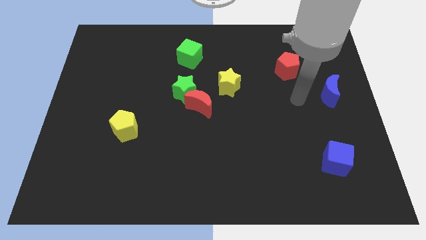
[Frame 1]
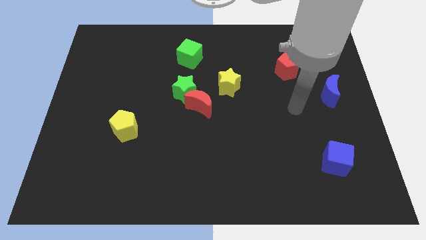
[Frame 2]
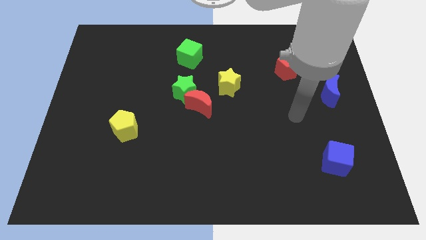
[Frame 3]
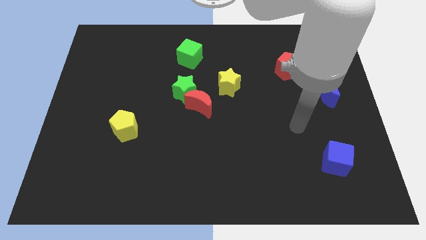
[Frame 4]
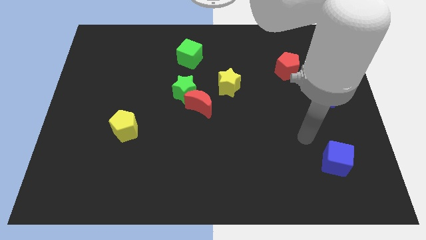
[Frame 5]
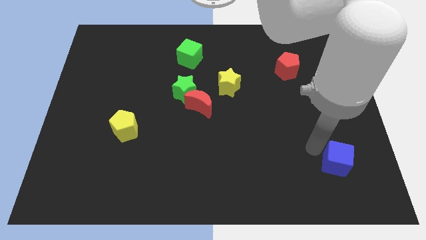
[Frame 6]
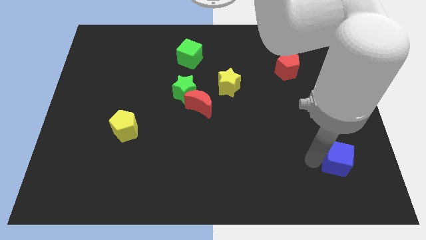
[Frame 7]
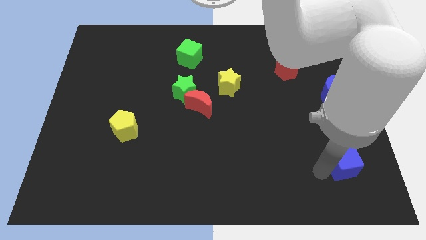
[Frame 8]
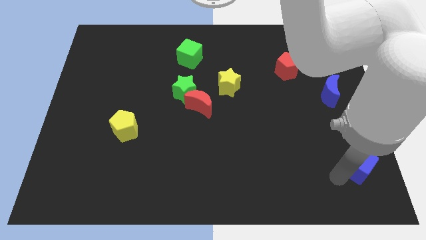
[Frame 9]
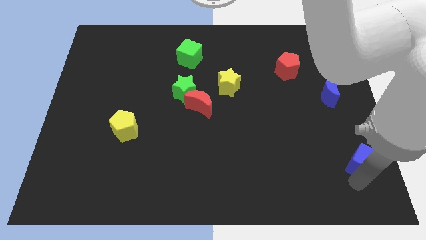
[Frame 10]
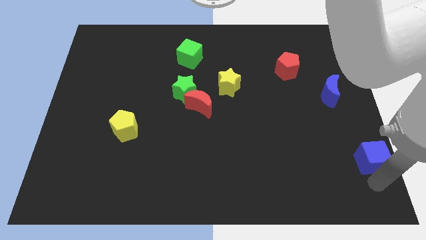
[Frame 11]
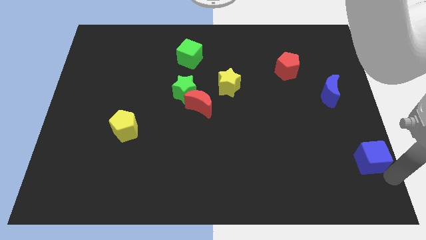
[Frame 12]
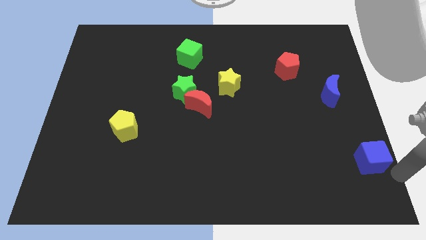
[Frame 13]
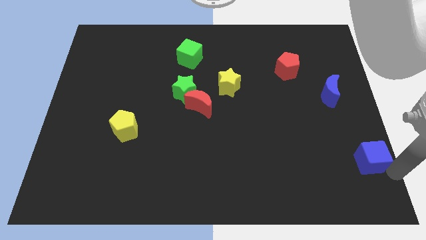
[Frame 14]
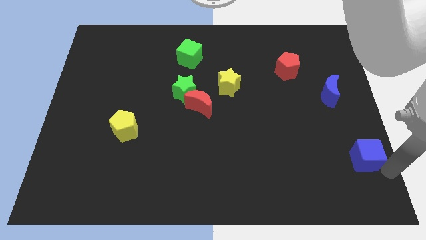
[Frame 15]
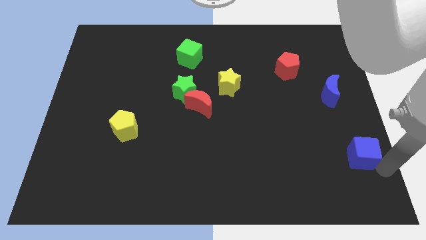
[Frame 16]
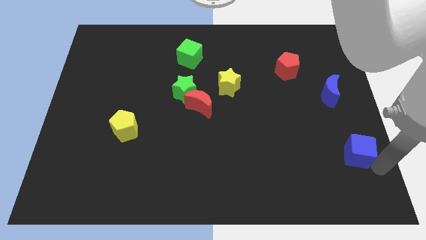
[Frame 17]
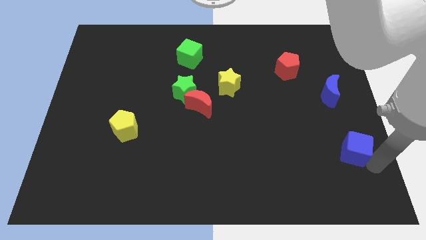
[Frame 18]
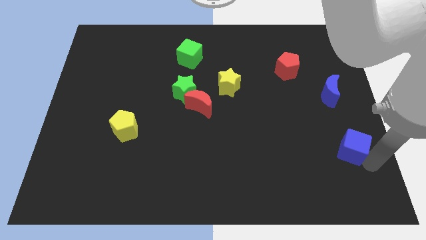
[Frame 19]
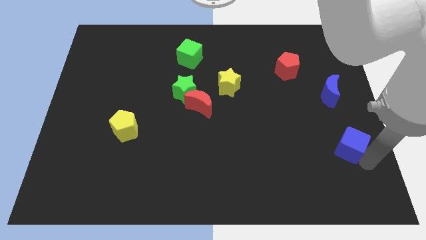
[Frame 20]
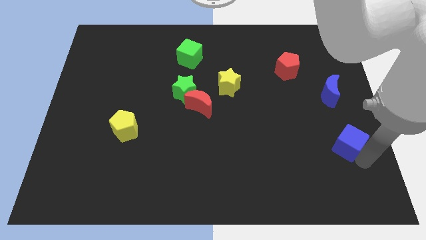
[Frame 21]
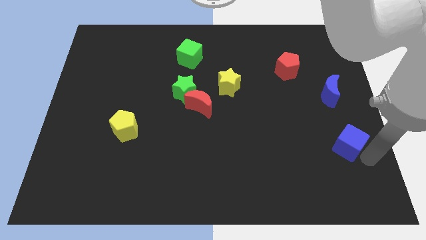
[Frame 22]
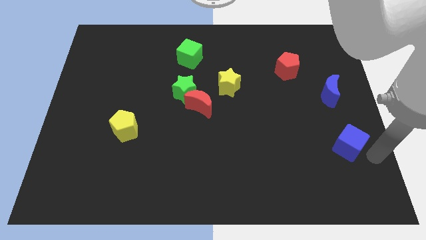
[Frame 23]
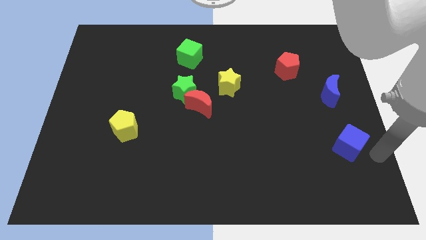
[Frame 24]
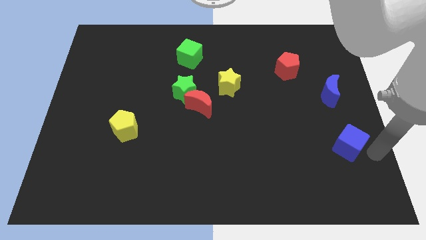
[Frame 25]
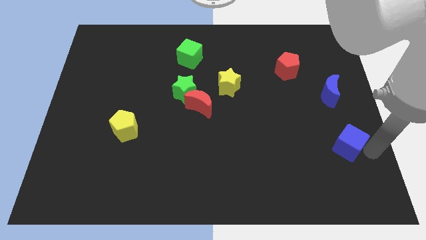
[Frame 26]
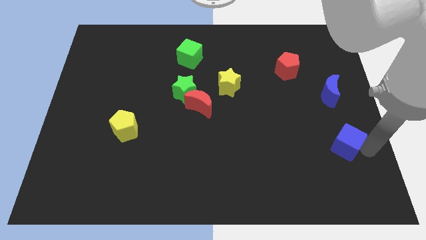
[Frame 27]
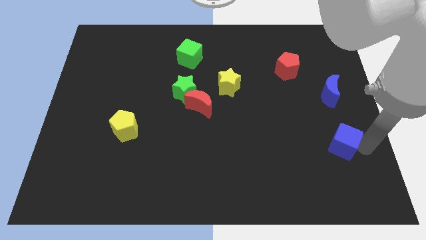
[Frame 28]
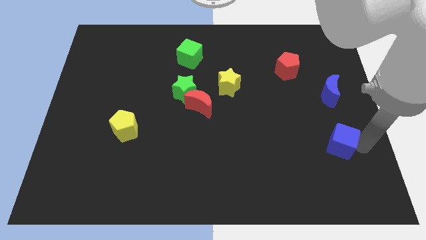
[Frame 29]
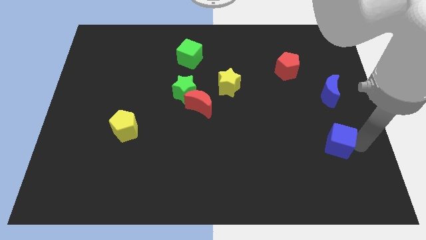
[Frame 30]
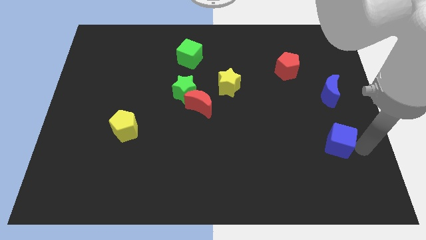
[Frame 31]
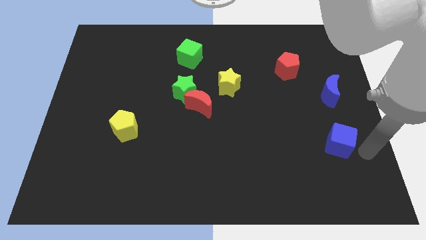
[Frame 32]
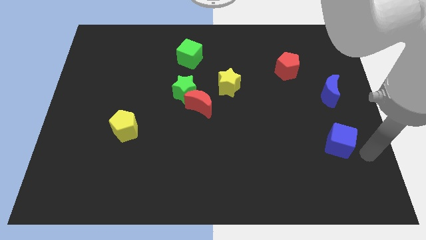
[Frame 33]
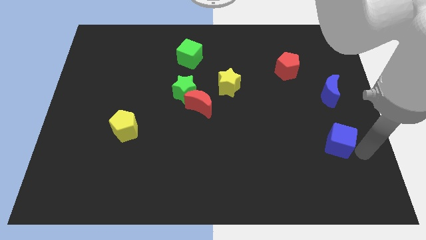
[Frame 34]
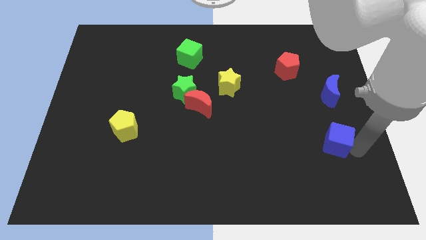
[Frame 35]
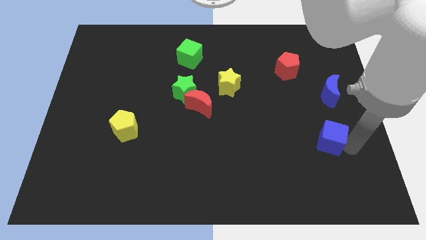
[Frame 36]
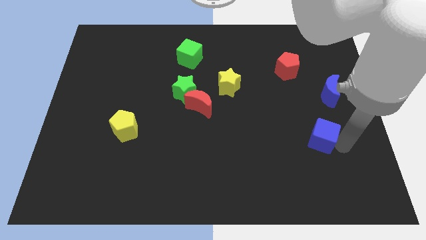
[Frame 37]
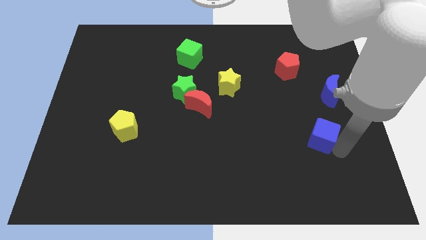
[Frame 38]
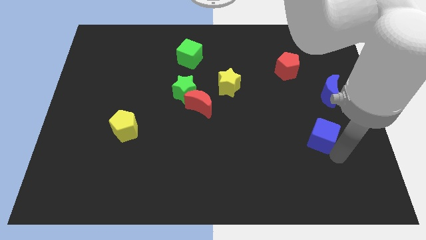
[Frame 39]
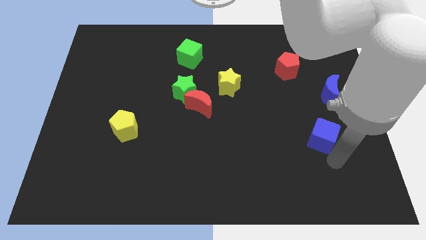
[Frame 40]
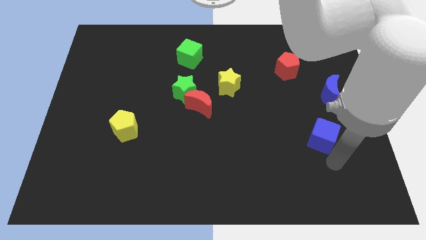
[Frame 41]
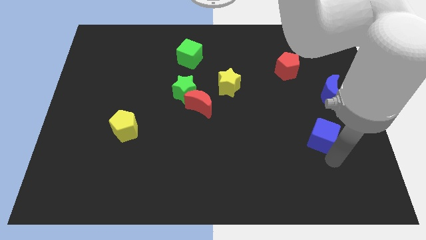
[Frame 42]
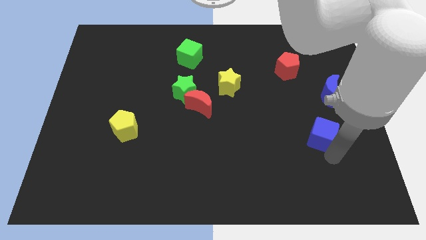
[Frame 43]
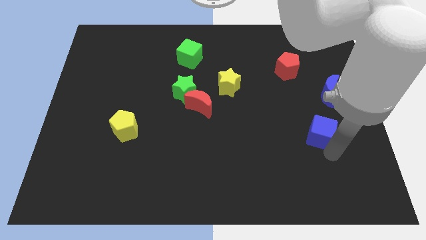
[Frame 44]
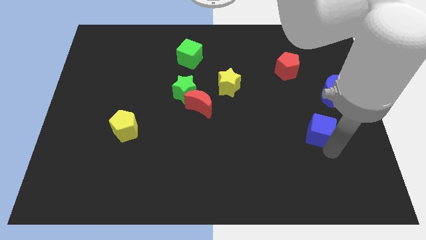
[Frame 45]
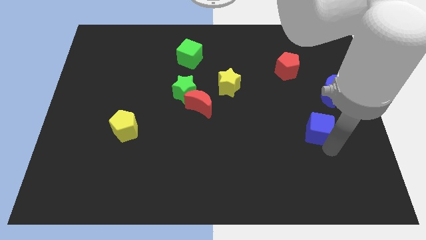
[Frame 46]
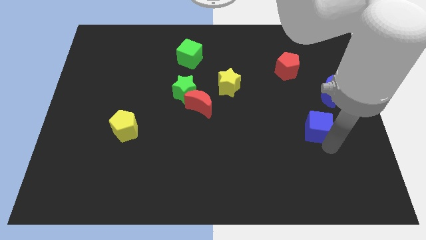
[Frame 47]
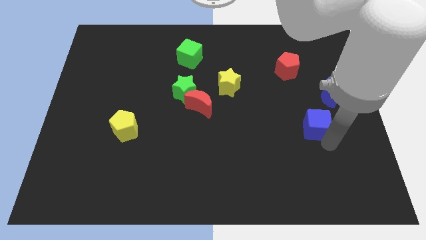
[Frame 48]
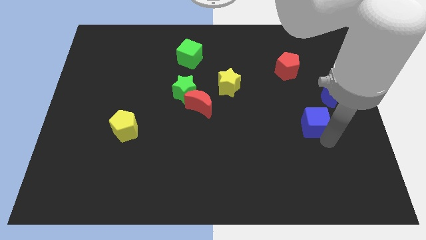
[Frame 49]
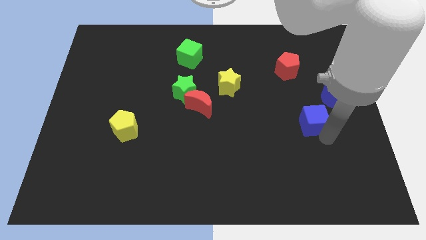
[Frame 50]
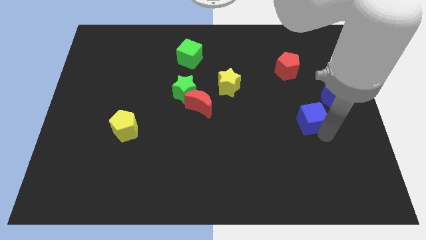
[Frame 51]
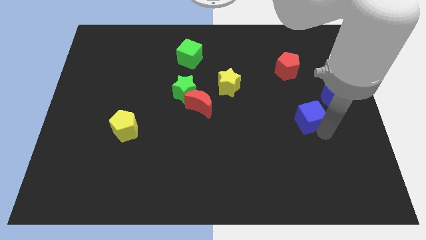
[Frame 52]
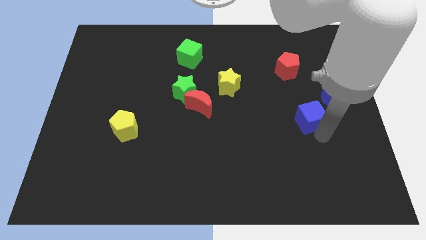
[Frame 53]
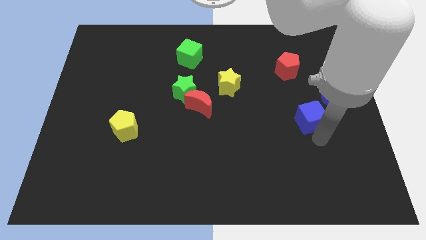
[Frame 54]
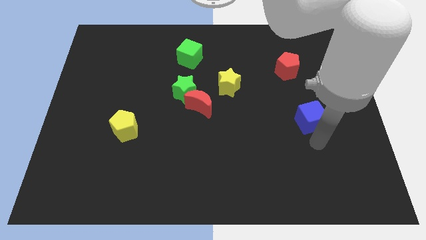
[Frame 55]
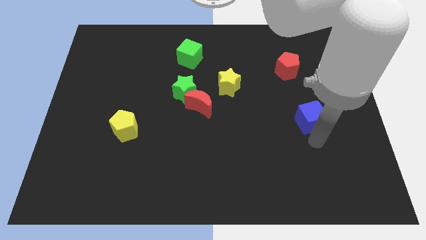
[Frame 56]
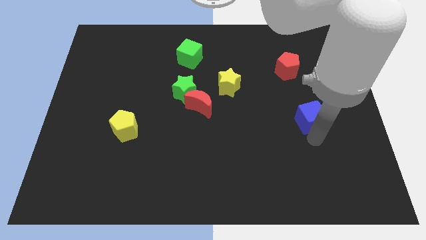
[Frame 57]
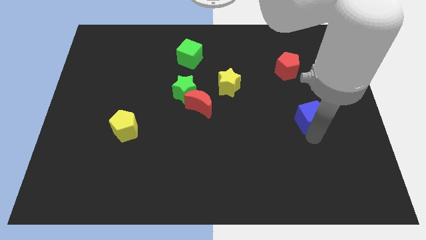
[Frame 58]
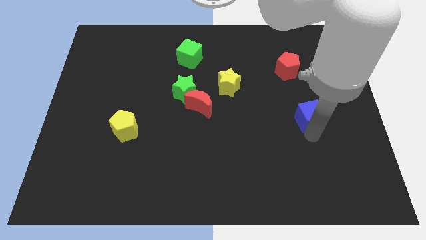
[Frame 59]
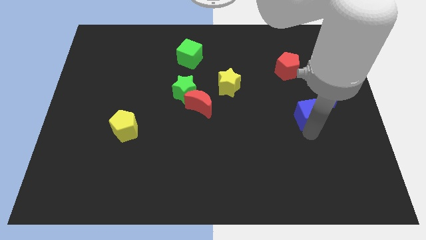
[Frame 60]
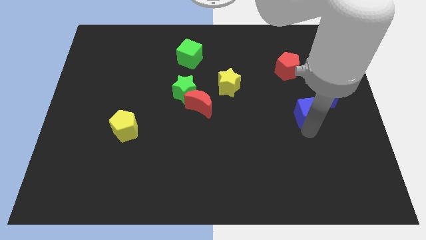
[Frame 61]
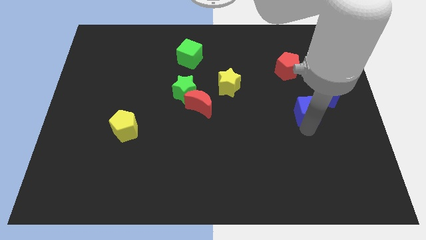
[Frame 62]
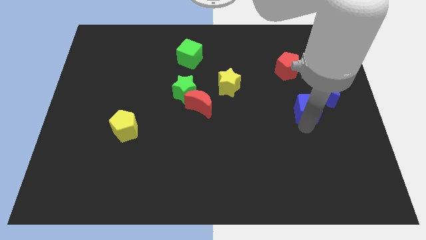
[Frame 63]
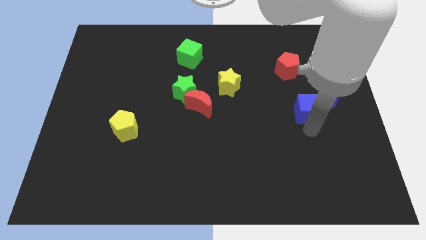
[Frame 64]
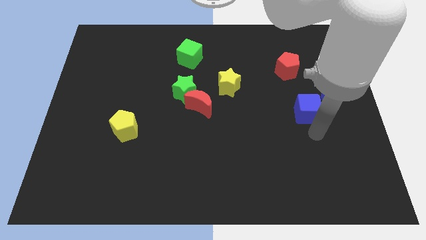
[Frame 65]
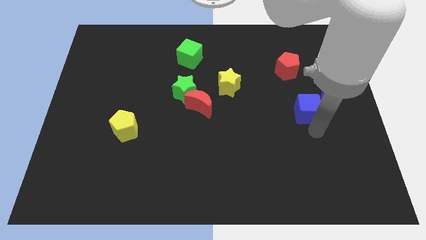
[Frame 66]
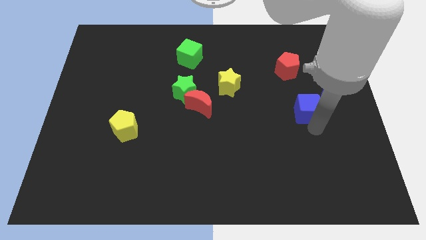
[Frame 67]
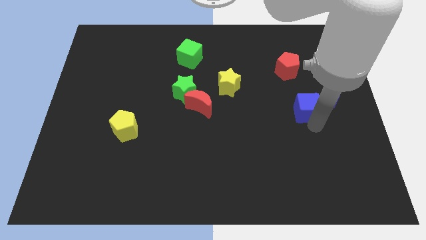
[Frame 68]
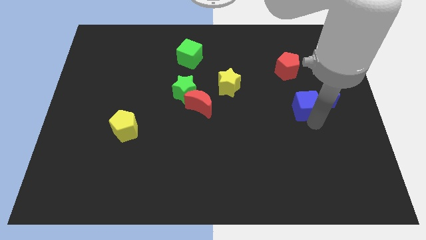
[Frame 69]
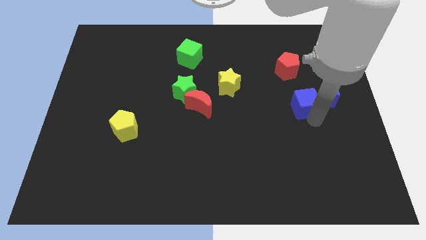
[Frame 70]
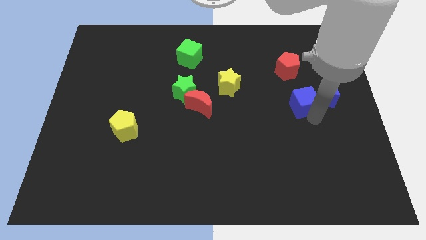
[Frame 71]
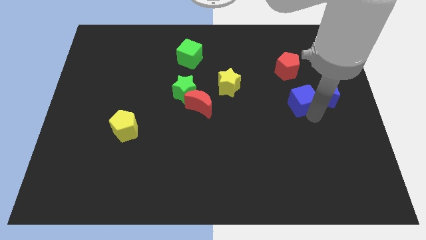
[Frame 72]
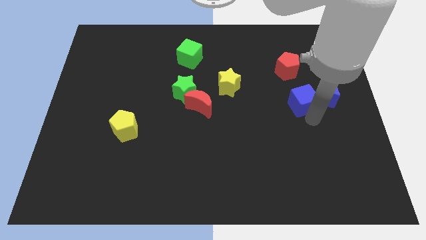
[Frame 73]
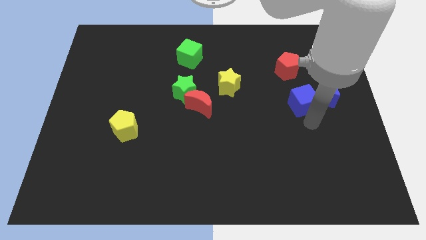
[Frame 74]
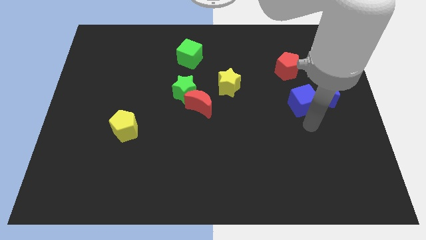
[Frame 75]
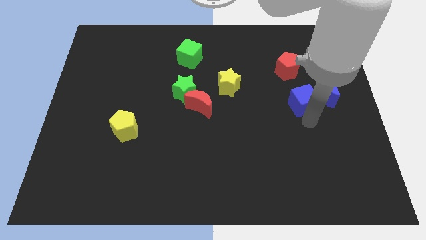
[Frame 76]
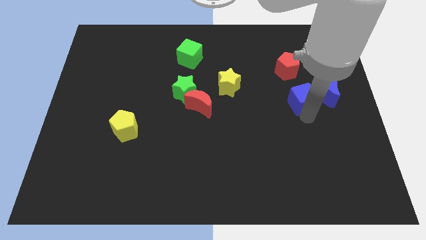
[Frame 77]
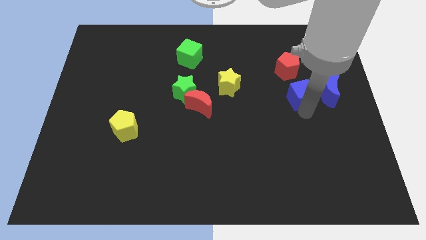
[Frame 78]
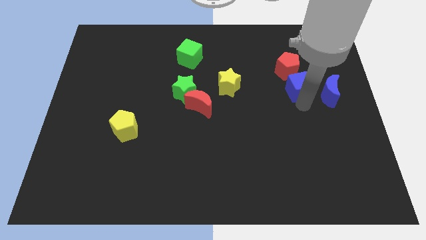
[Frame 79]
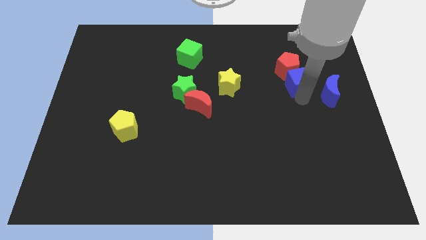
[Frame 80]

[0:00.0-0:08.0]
push the blue cube to the red pentagon
